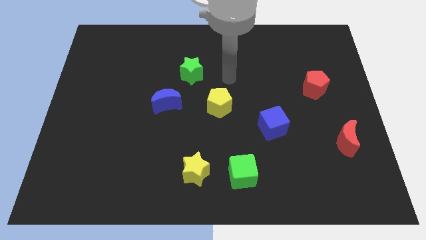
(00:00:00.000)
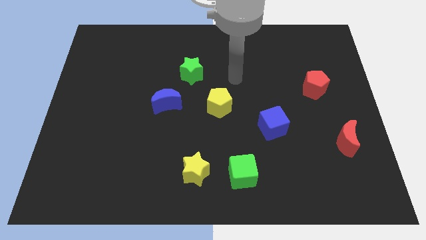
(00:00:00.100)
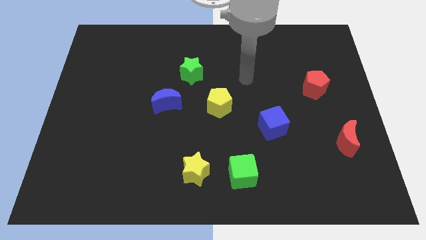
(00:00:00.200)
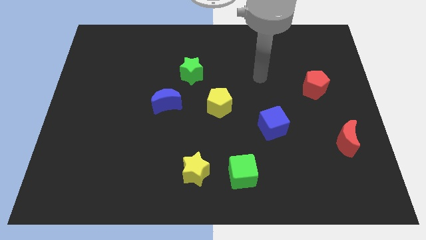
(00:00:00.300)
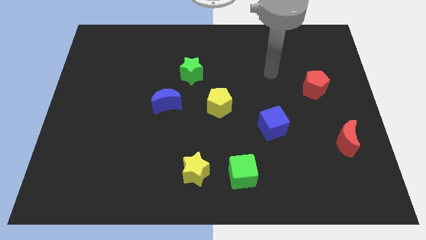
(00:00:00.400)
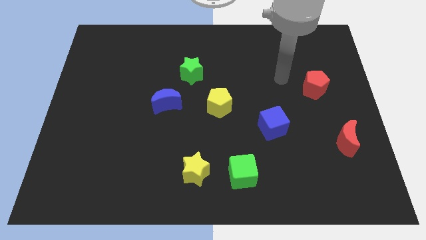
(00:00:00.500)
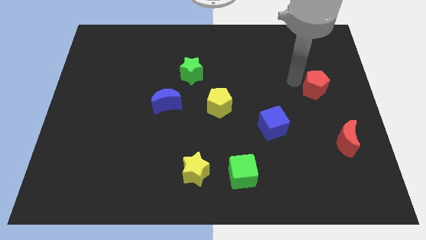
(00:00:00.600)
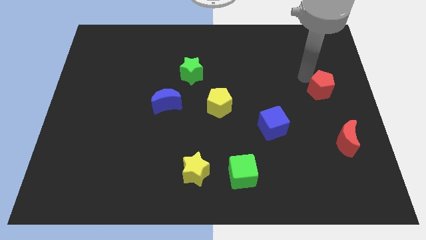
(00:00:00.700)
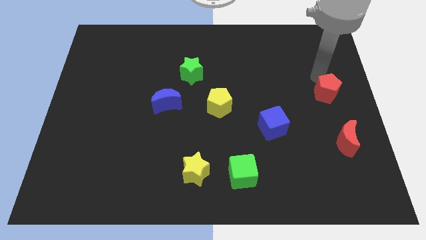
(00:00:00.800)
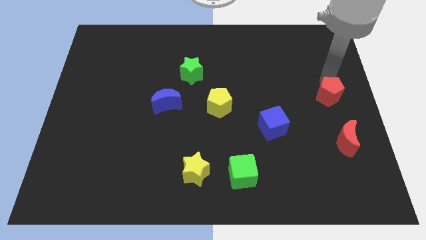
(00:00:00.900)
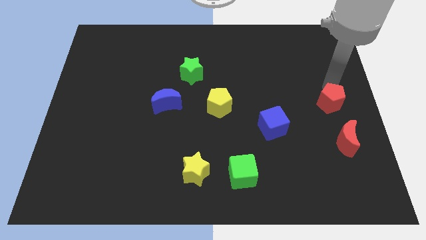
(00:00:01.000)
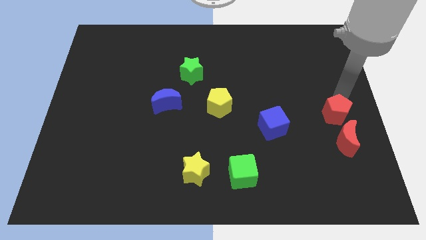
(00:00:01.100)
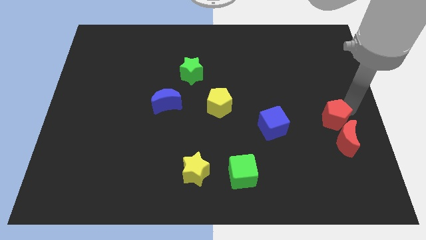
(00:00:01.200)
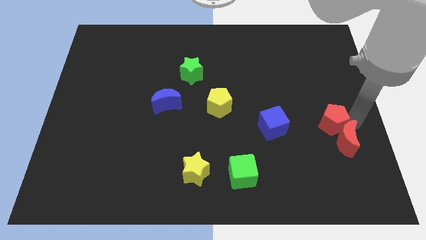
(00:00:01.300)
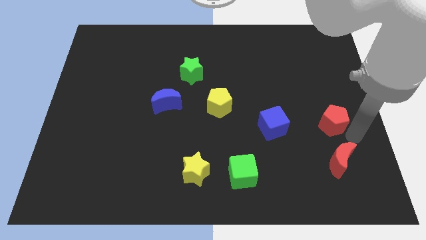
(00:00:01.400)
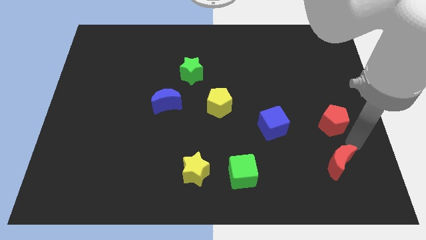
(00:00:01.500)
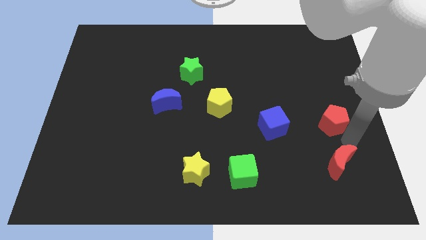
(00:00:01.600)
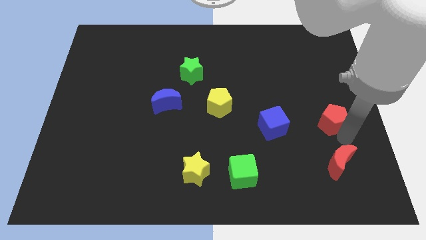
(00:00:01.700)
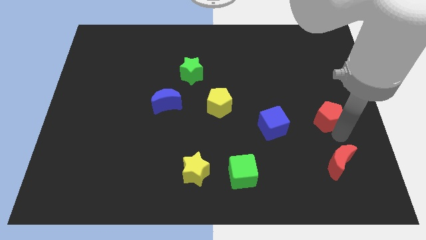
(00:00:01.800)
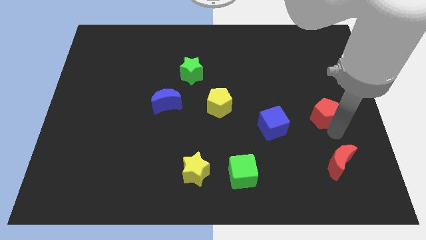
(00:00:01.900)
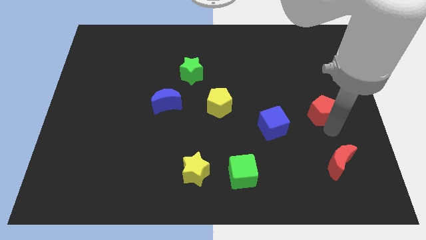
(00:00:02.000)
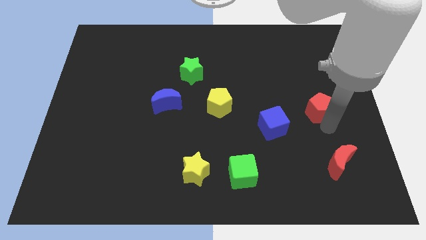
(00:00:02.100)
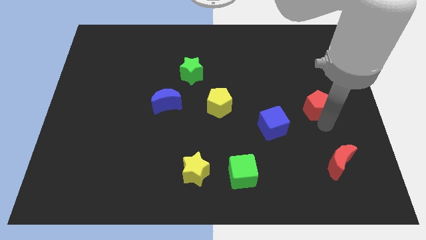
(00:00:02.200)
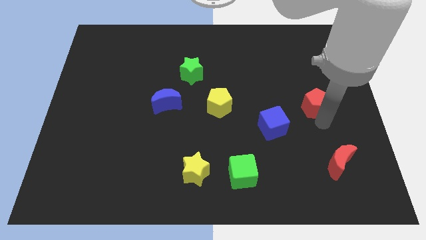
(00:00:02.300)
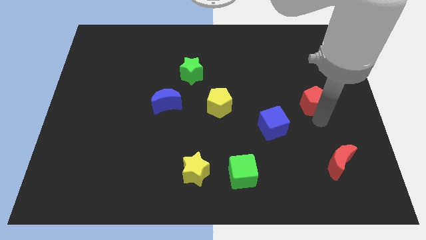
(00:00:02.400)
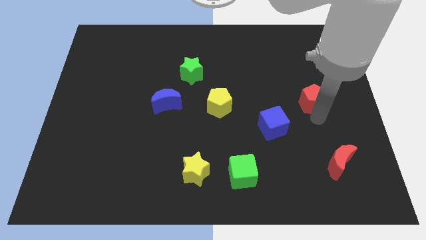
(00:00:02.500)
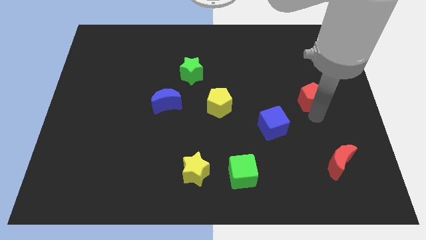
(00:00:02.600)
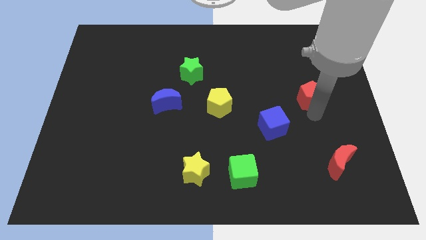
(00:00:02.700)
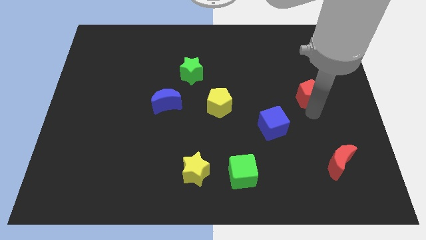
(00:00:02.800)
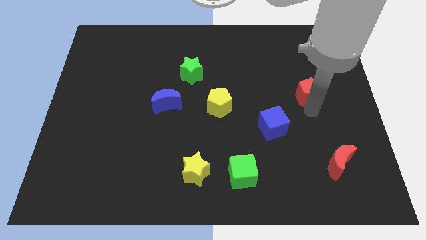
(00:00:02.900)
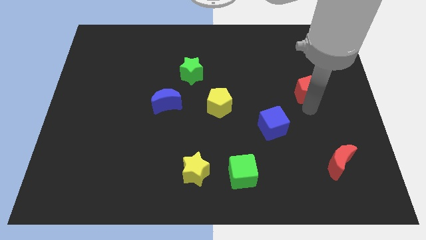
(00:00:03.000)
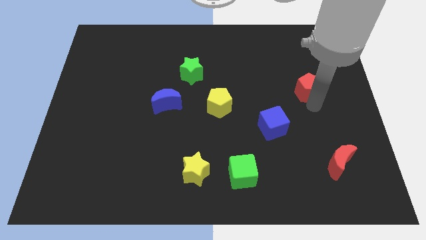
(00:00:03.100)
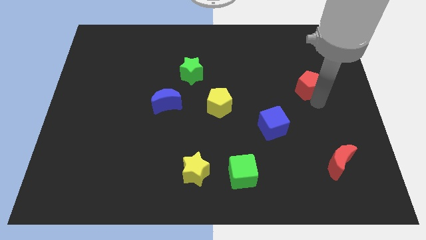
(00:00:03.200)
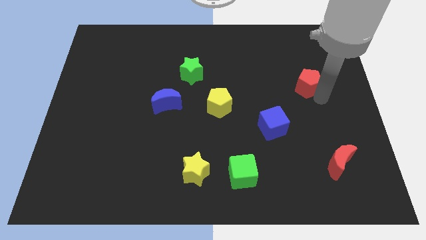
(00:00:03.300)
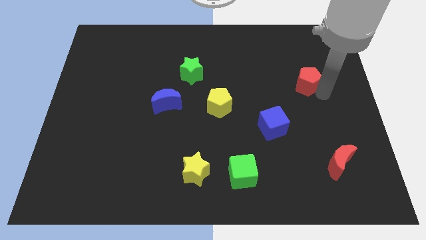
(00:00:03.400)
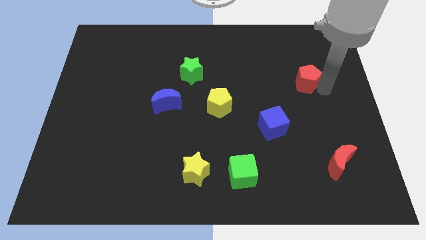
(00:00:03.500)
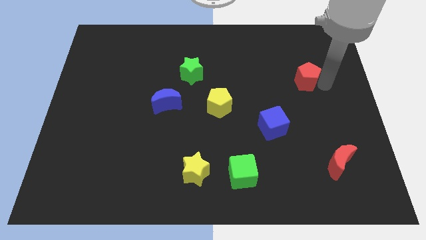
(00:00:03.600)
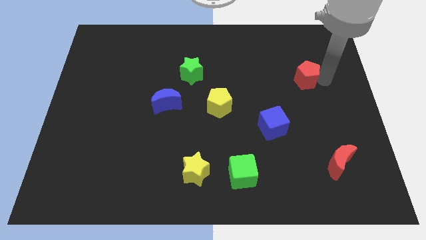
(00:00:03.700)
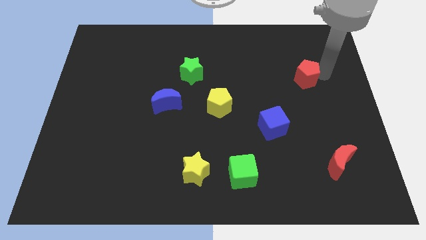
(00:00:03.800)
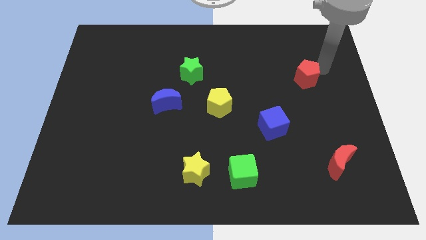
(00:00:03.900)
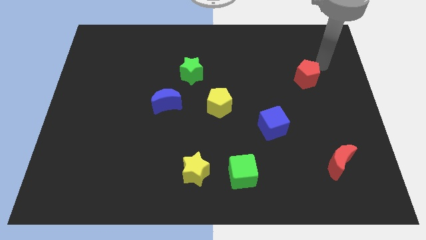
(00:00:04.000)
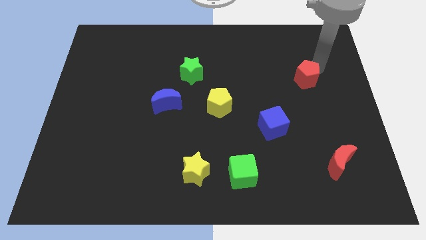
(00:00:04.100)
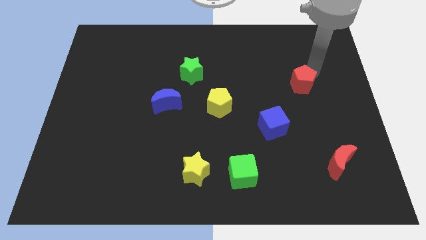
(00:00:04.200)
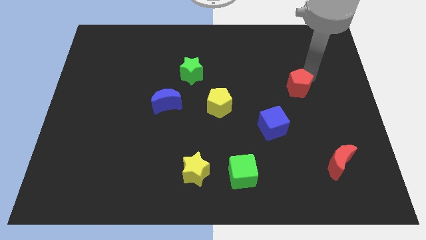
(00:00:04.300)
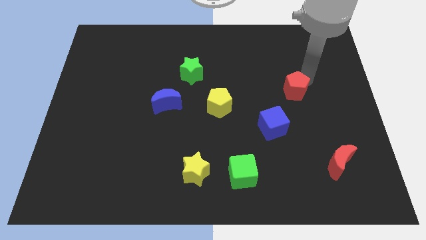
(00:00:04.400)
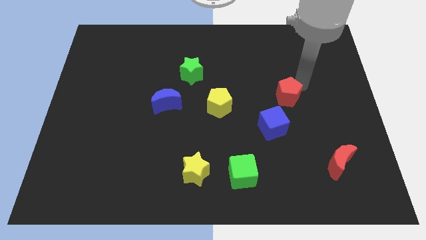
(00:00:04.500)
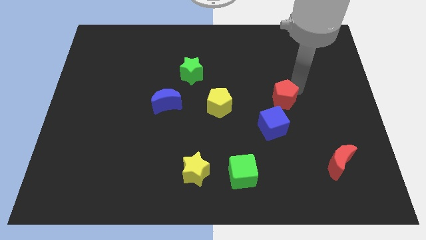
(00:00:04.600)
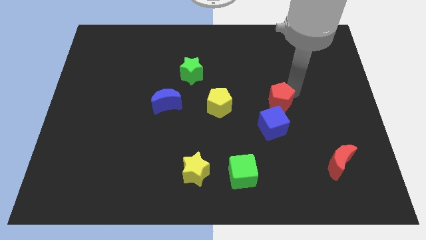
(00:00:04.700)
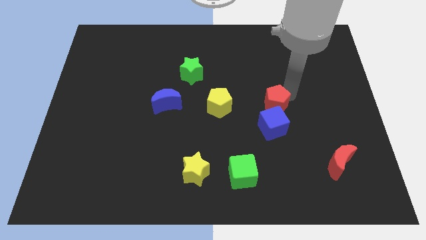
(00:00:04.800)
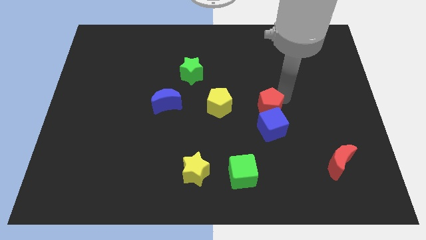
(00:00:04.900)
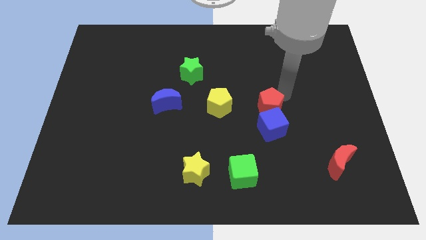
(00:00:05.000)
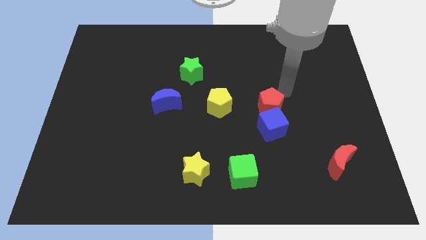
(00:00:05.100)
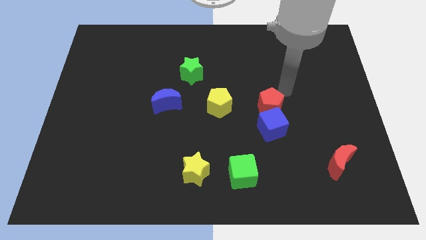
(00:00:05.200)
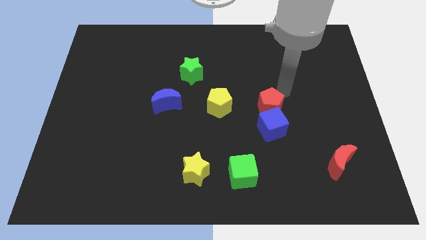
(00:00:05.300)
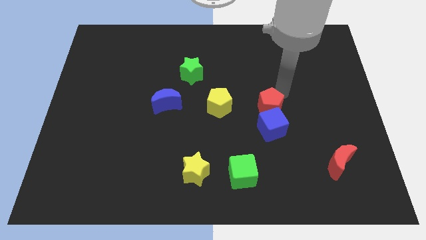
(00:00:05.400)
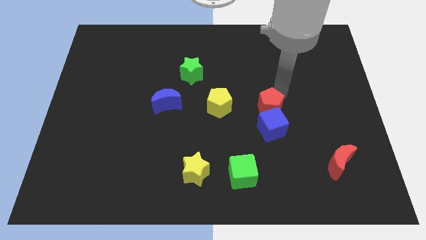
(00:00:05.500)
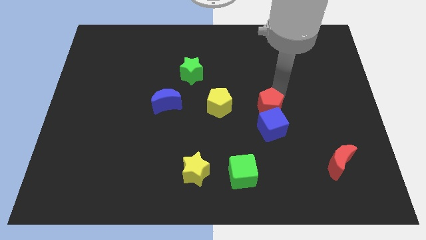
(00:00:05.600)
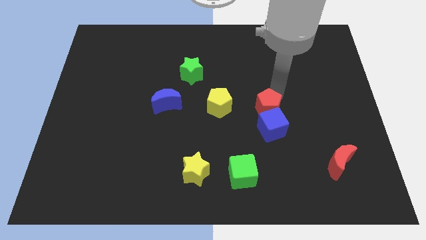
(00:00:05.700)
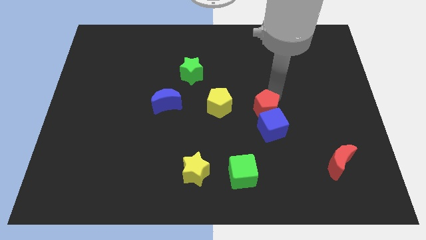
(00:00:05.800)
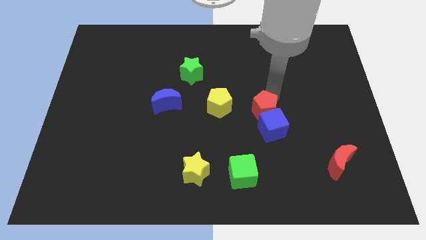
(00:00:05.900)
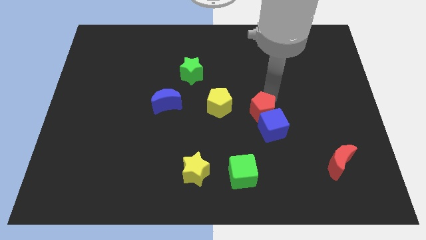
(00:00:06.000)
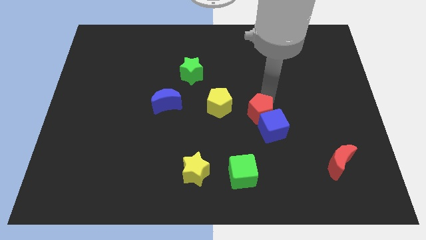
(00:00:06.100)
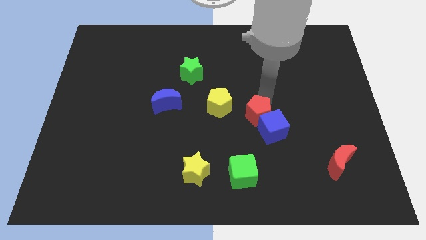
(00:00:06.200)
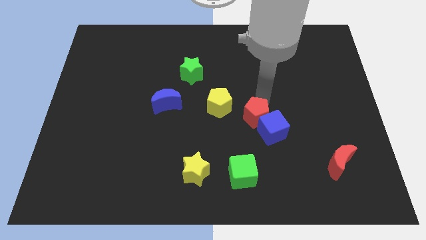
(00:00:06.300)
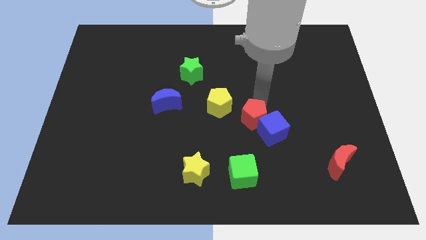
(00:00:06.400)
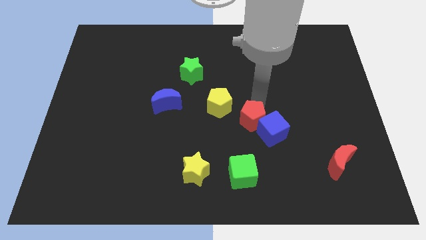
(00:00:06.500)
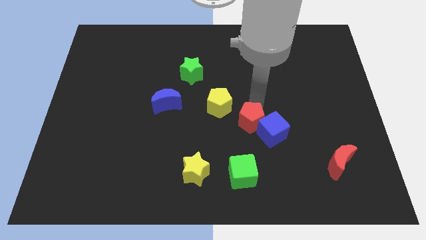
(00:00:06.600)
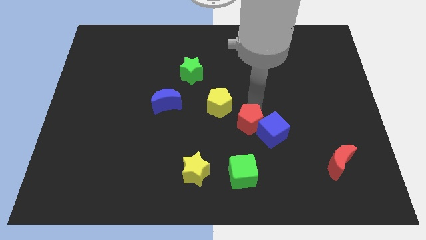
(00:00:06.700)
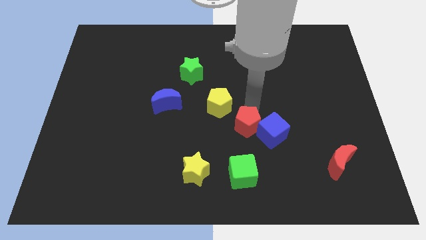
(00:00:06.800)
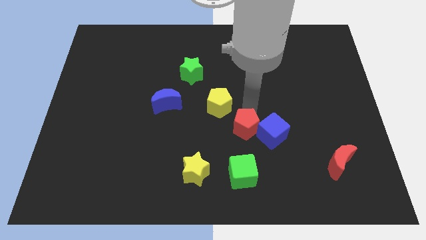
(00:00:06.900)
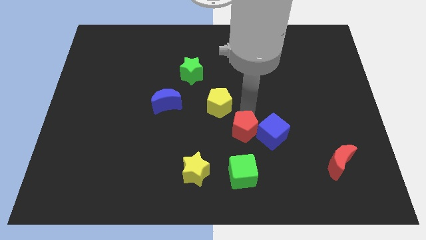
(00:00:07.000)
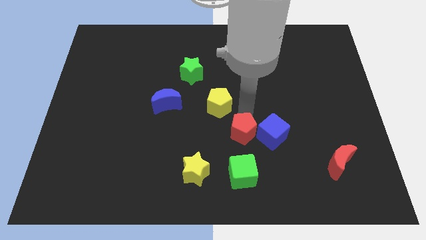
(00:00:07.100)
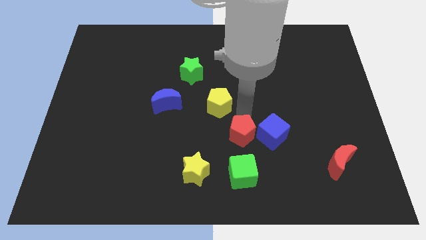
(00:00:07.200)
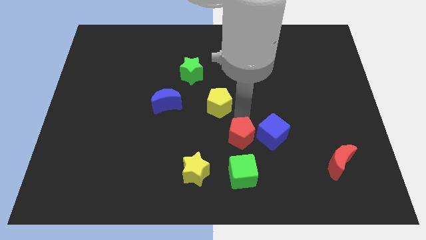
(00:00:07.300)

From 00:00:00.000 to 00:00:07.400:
push the red pentagon diagonally down and to the left of the blue cube
